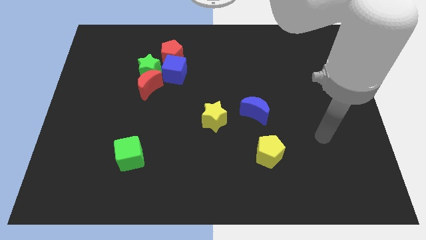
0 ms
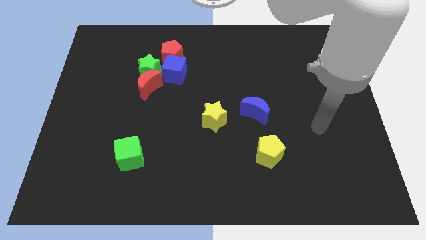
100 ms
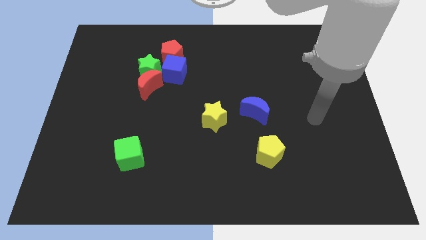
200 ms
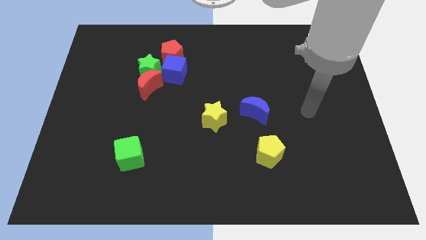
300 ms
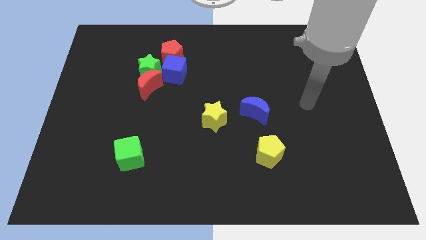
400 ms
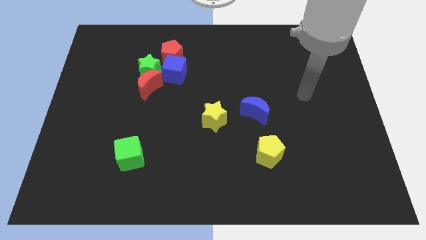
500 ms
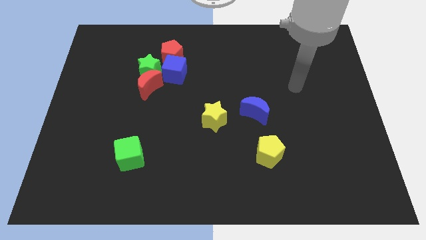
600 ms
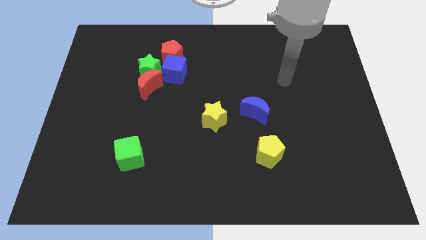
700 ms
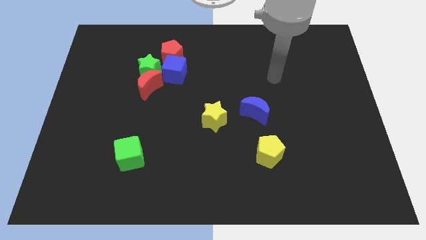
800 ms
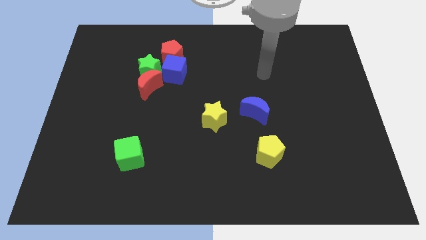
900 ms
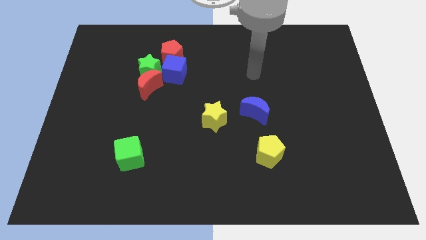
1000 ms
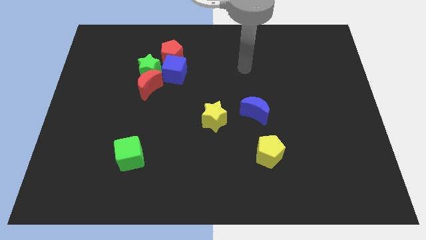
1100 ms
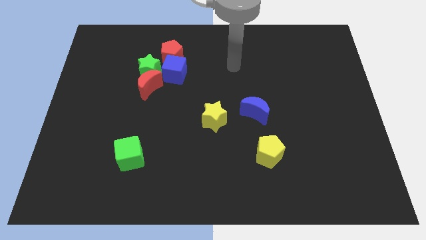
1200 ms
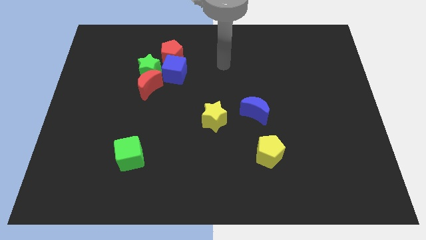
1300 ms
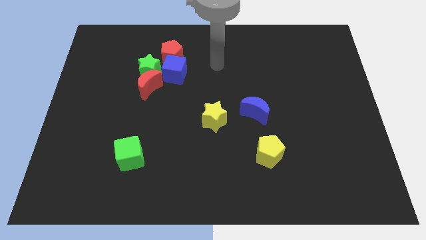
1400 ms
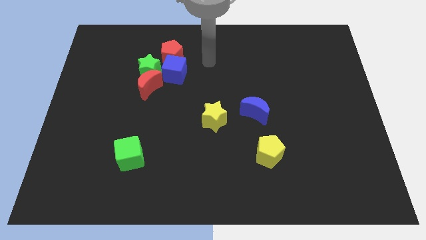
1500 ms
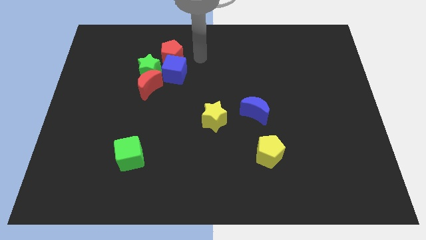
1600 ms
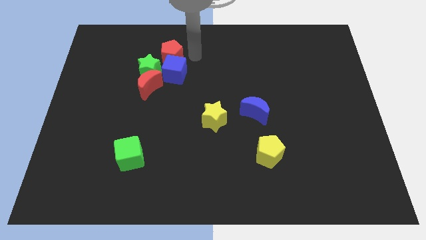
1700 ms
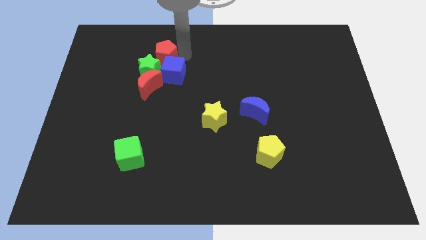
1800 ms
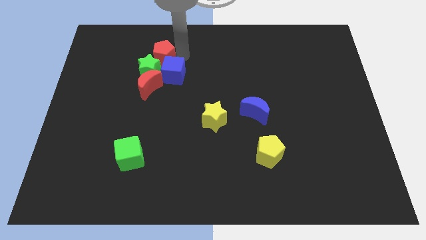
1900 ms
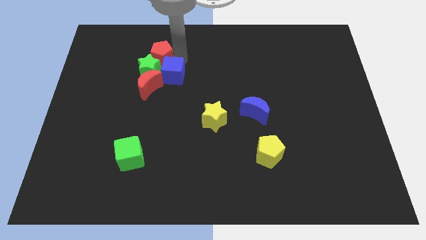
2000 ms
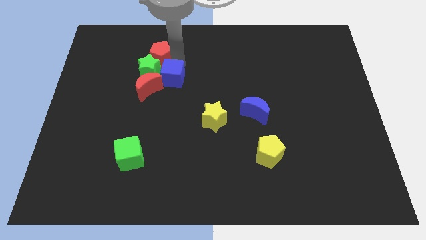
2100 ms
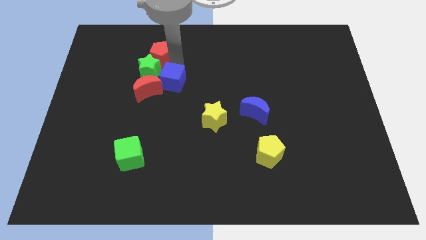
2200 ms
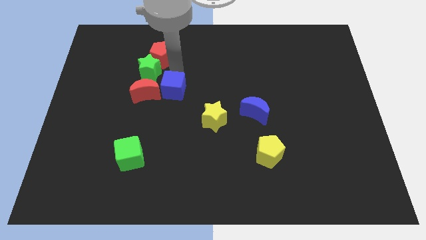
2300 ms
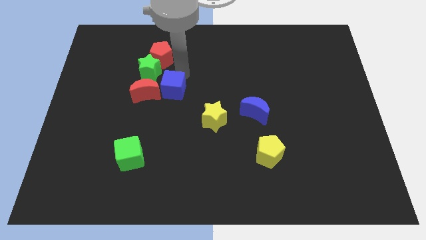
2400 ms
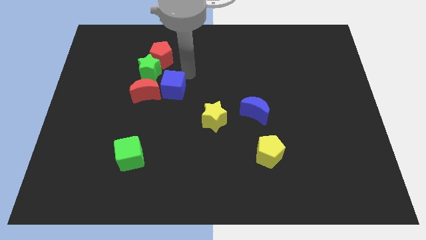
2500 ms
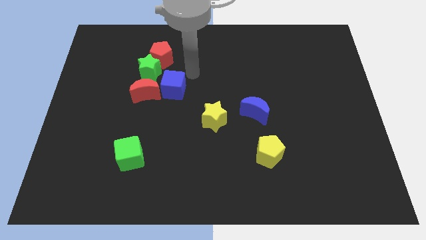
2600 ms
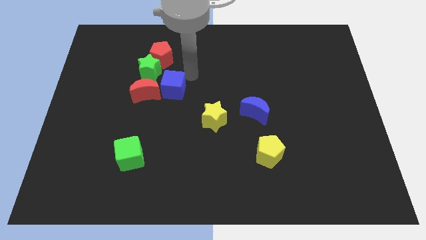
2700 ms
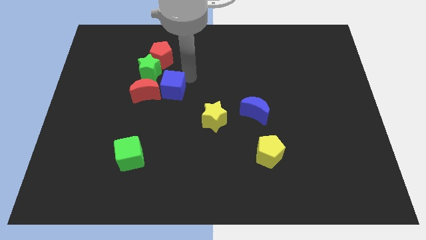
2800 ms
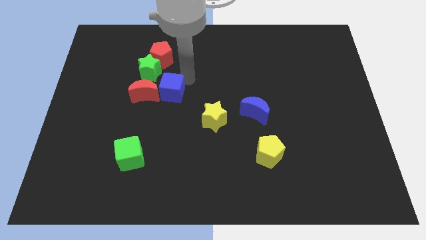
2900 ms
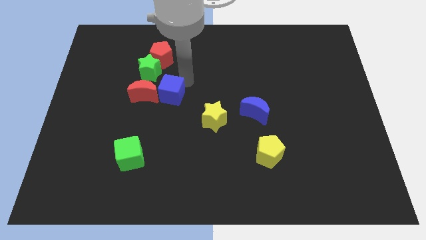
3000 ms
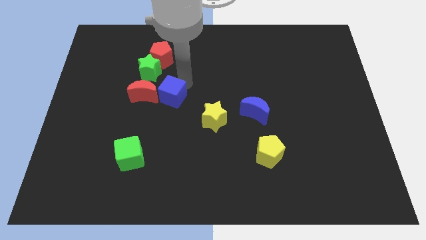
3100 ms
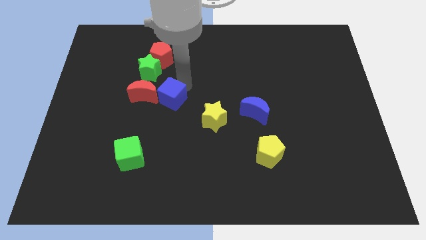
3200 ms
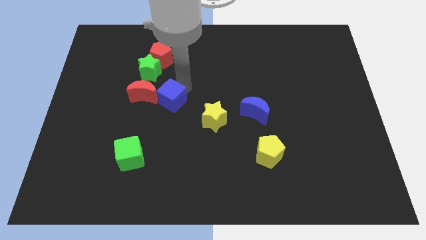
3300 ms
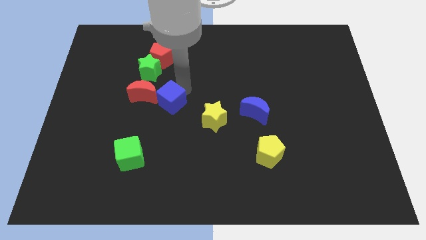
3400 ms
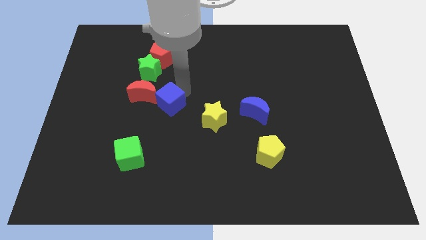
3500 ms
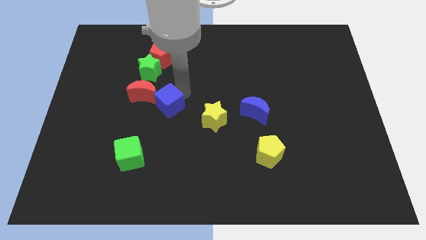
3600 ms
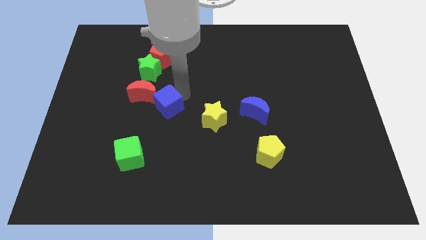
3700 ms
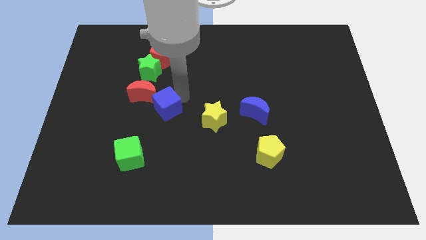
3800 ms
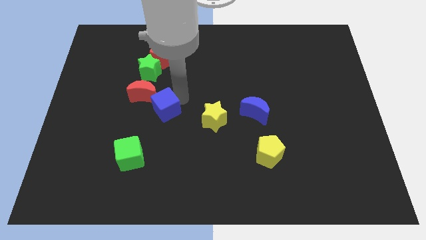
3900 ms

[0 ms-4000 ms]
slide the blue cube down and left a little

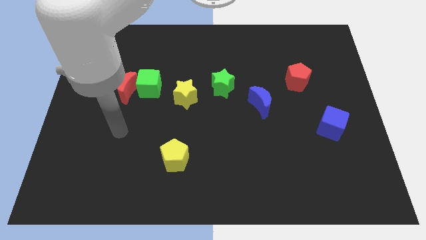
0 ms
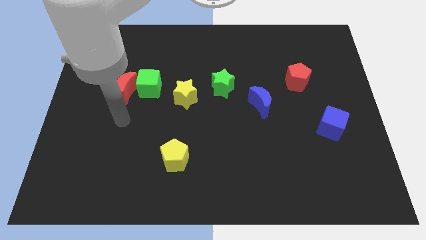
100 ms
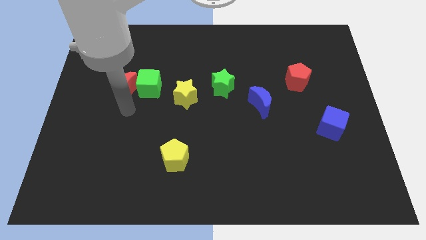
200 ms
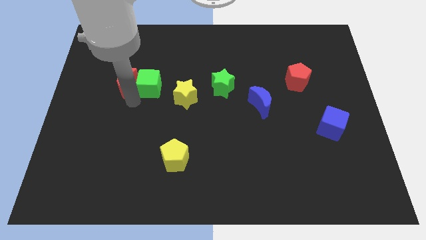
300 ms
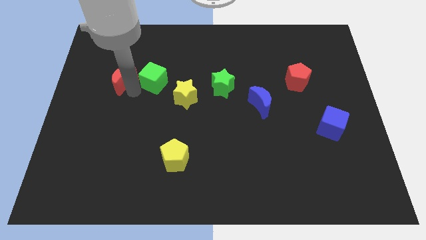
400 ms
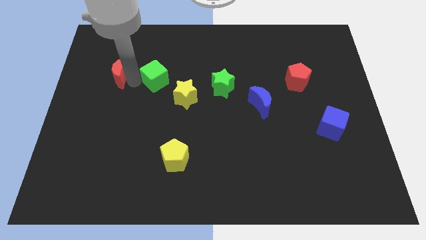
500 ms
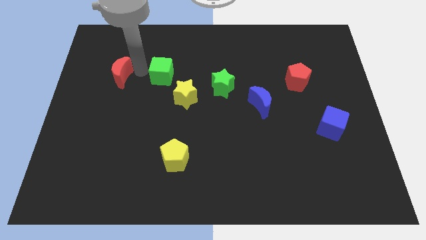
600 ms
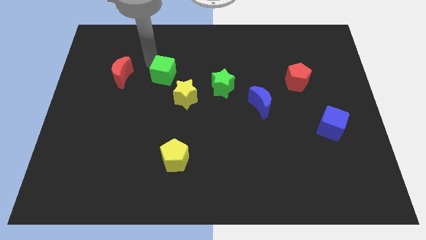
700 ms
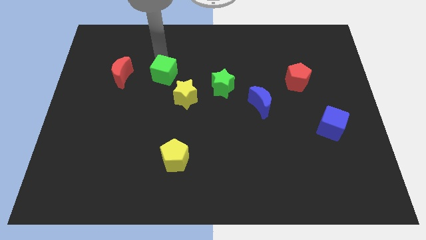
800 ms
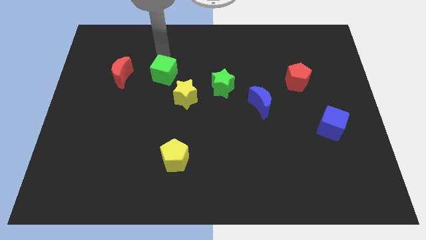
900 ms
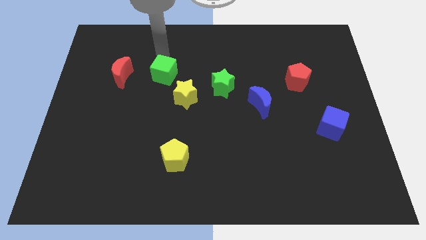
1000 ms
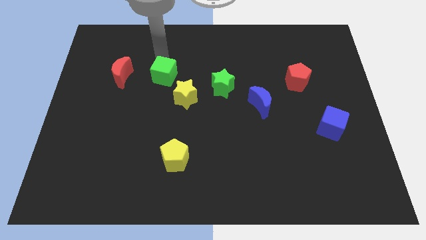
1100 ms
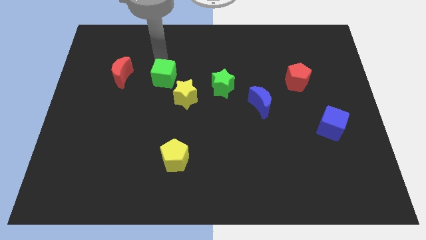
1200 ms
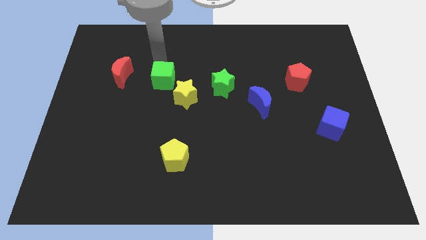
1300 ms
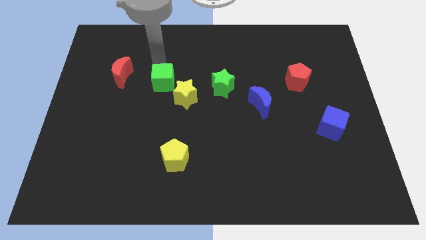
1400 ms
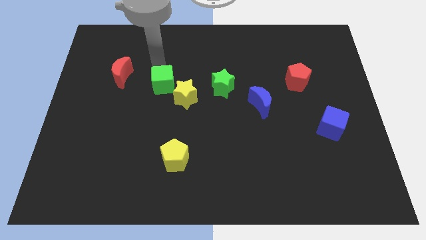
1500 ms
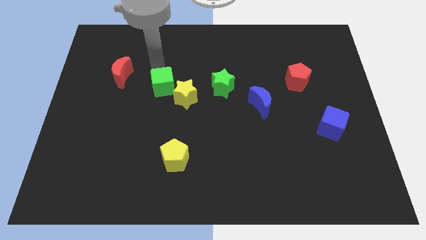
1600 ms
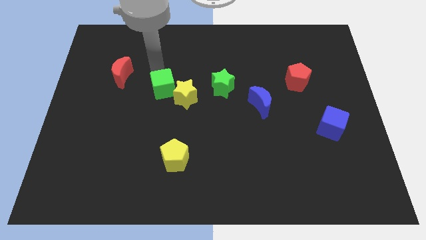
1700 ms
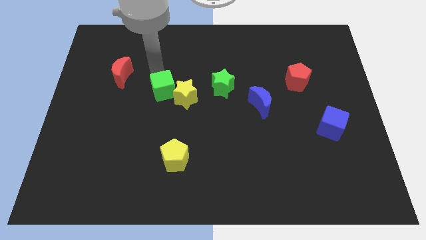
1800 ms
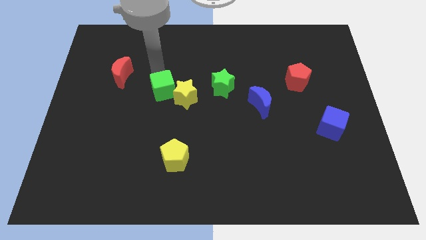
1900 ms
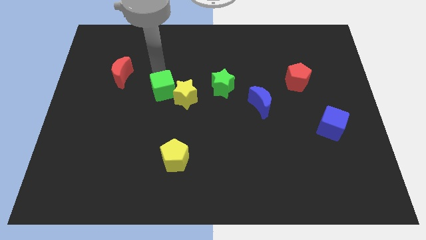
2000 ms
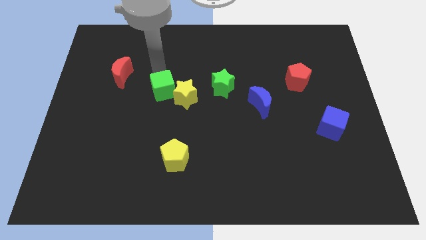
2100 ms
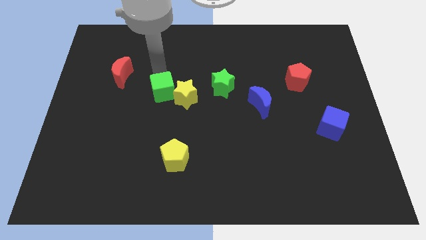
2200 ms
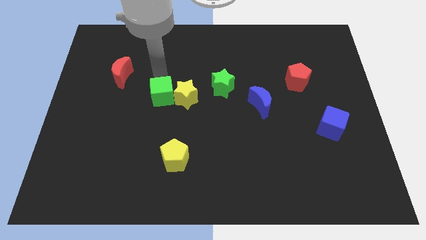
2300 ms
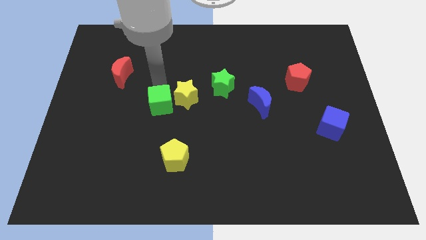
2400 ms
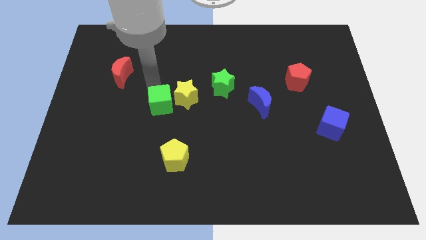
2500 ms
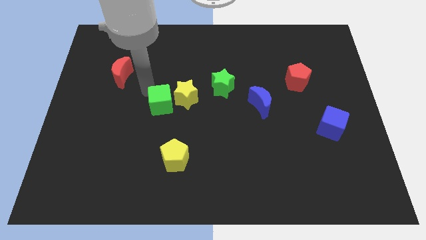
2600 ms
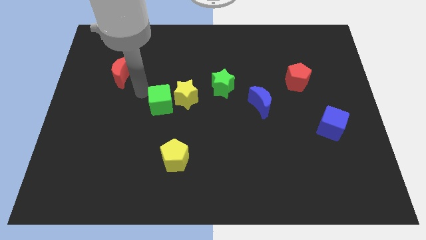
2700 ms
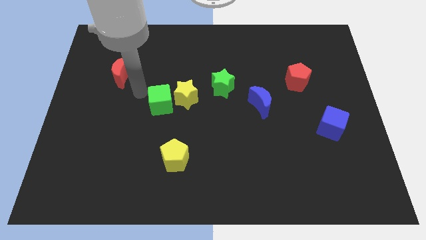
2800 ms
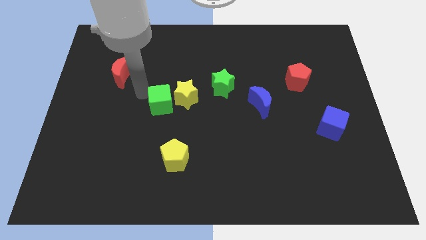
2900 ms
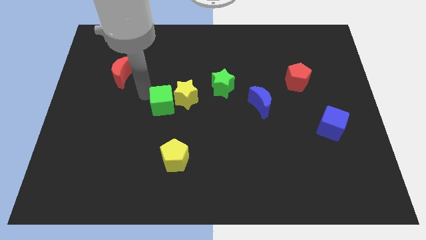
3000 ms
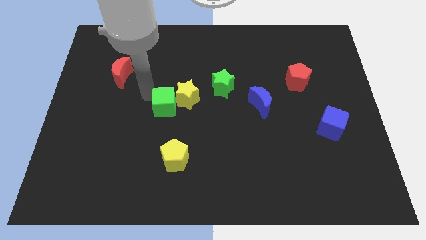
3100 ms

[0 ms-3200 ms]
move the green cube a little bit down and right diagonally

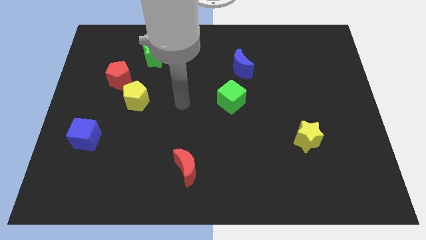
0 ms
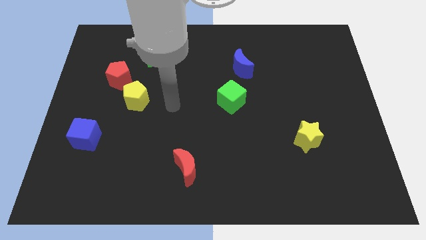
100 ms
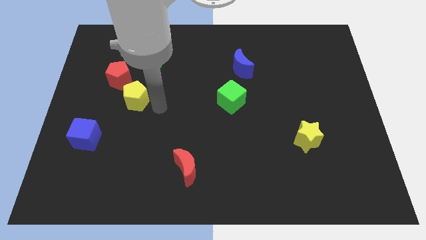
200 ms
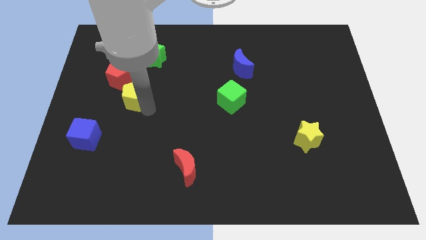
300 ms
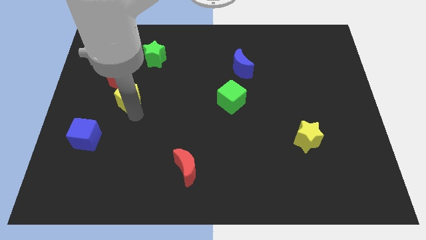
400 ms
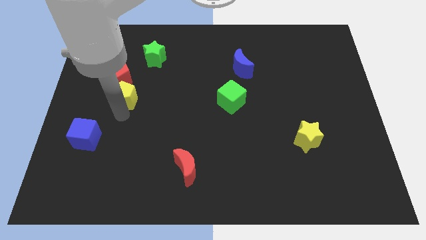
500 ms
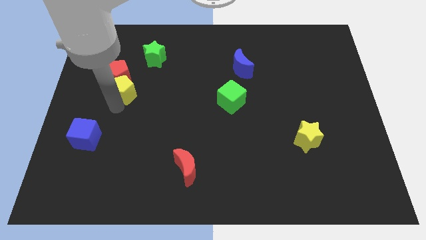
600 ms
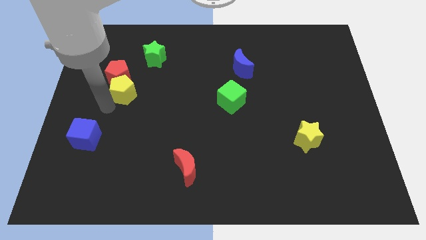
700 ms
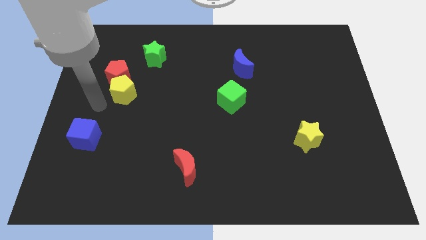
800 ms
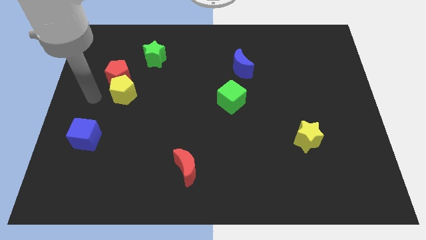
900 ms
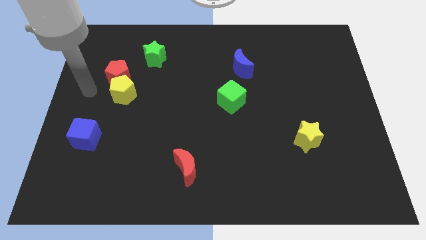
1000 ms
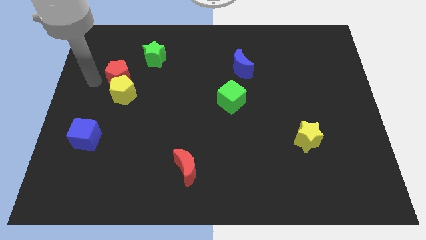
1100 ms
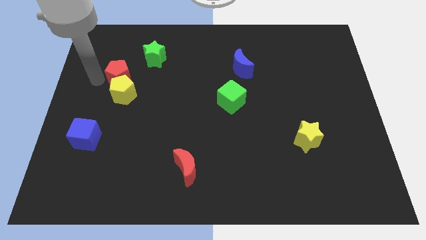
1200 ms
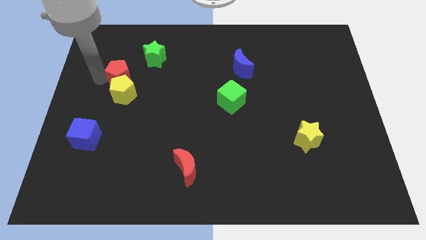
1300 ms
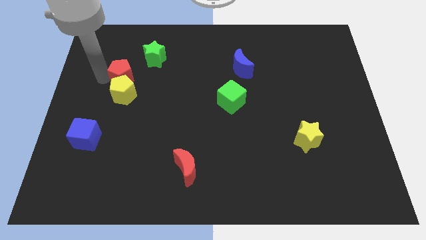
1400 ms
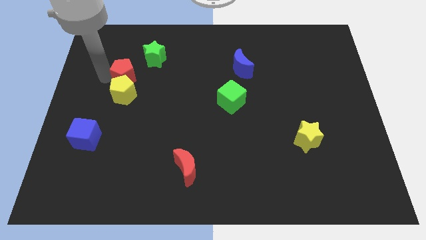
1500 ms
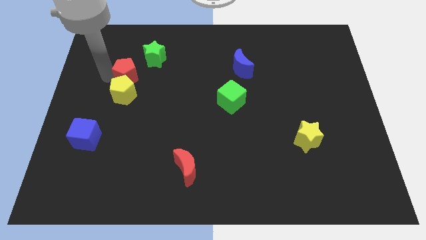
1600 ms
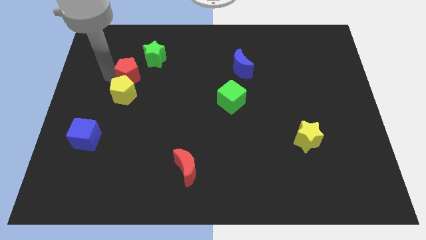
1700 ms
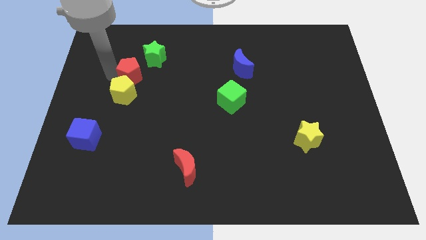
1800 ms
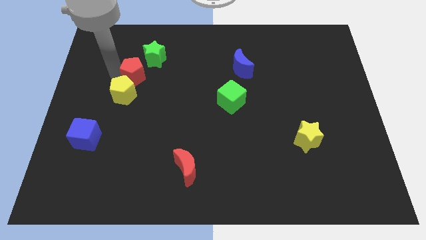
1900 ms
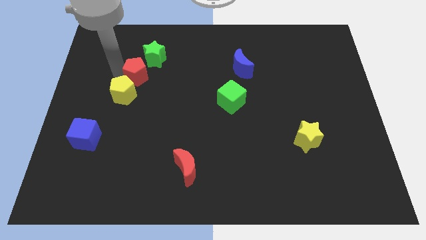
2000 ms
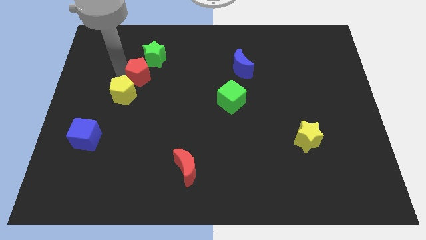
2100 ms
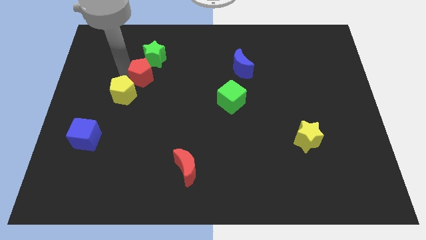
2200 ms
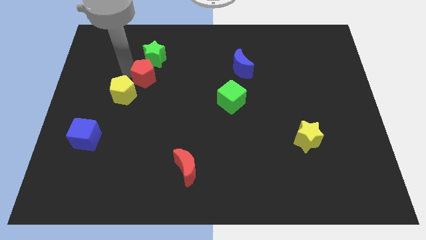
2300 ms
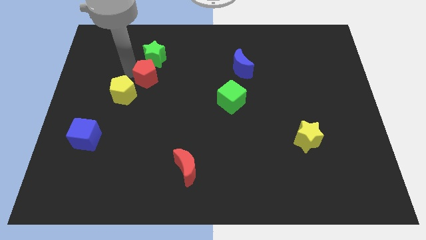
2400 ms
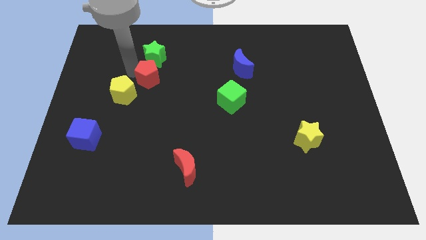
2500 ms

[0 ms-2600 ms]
move the red pentagon slightly to the right
